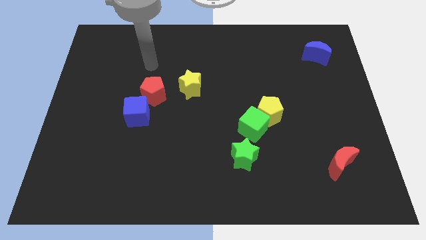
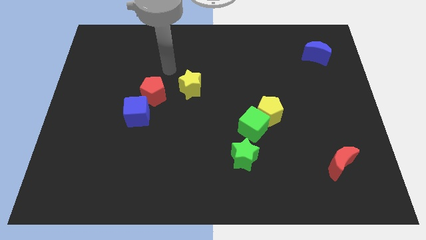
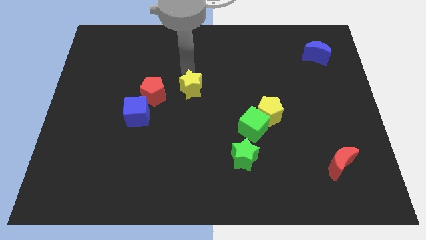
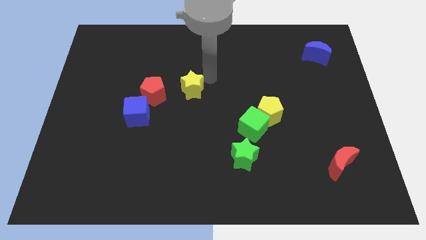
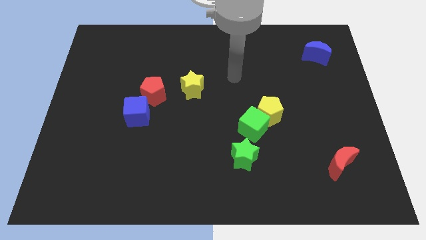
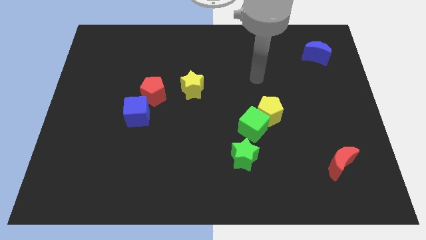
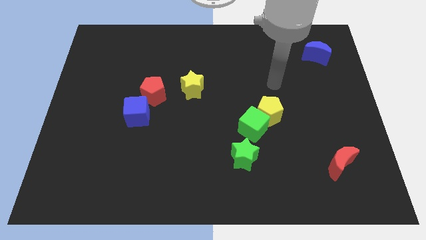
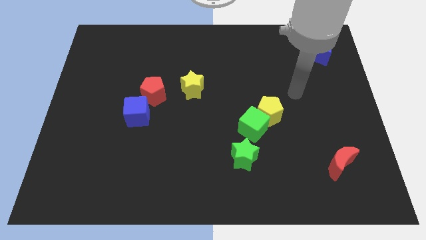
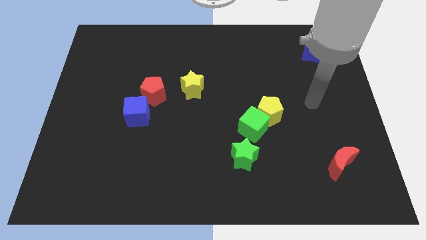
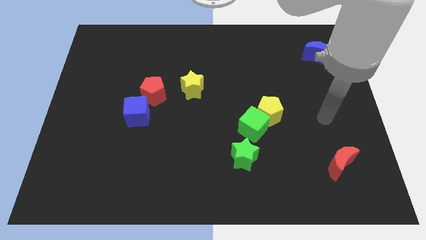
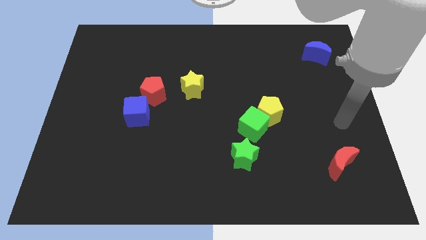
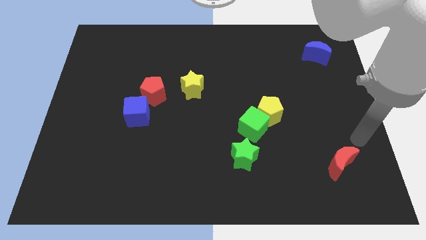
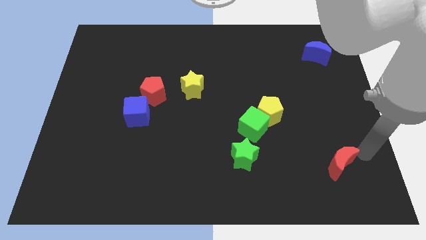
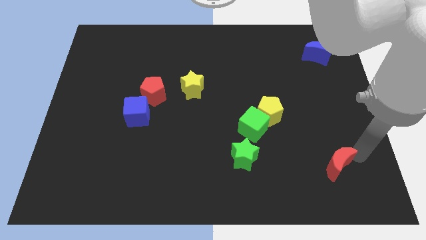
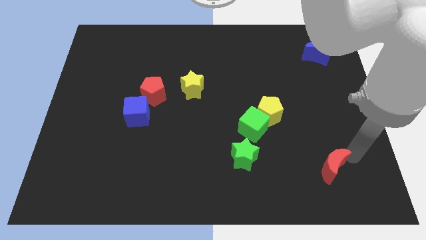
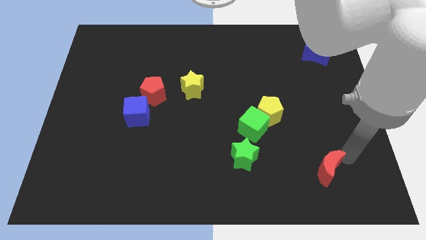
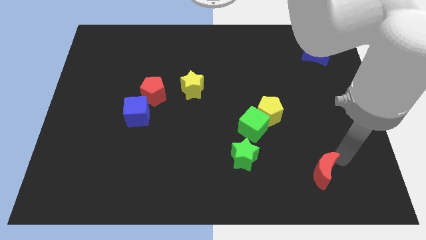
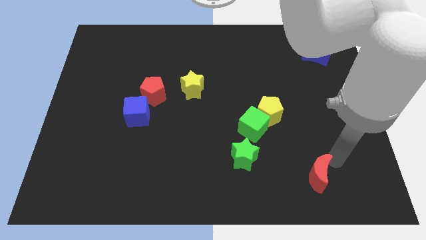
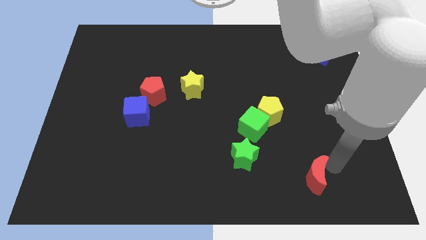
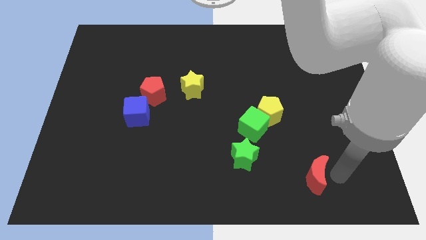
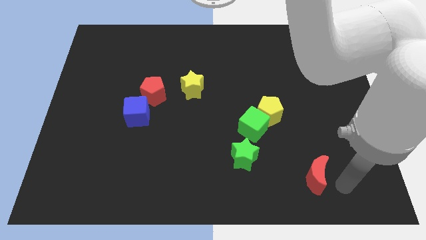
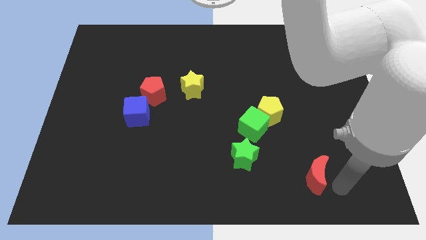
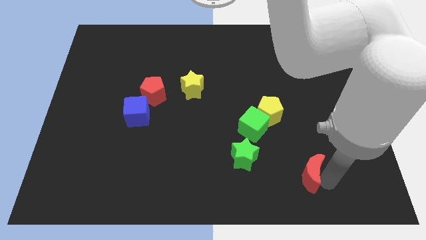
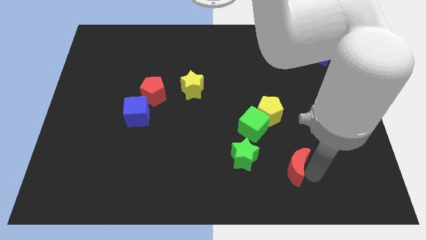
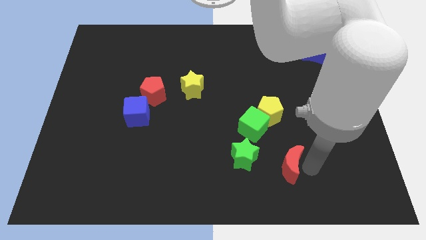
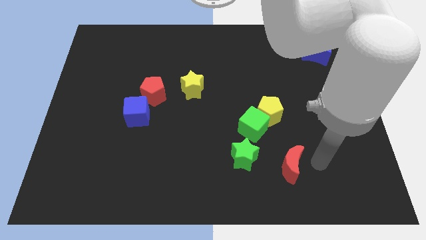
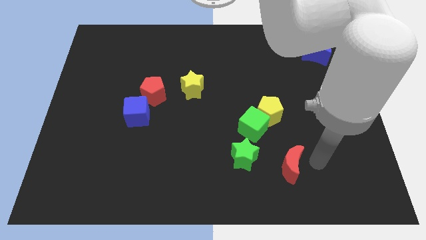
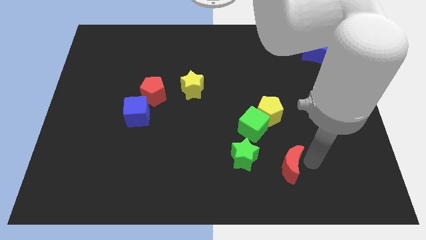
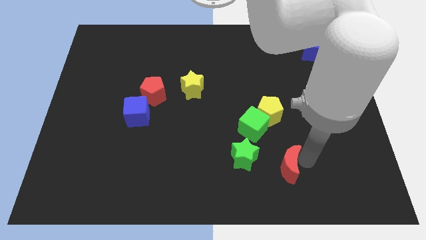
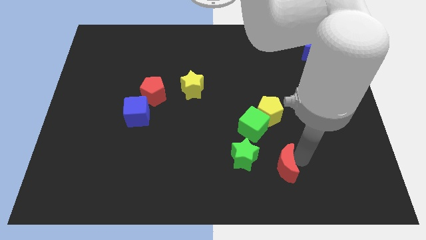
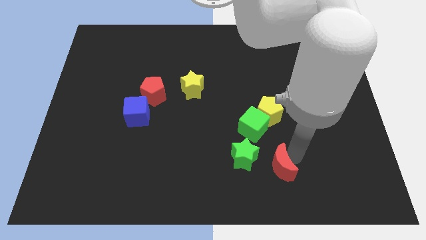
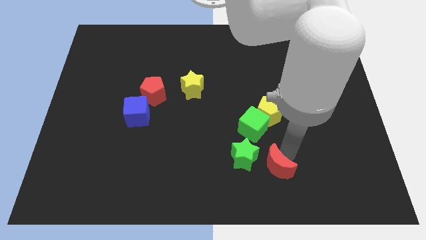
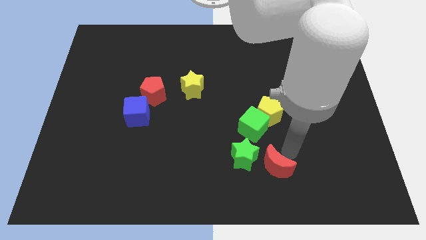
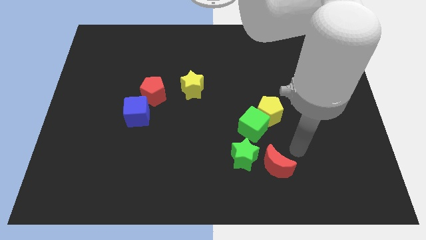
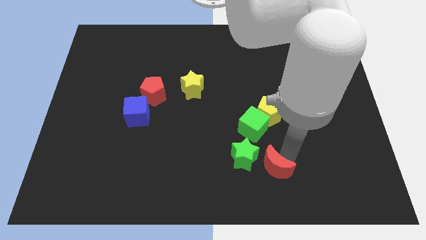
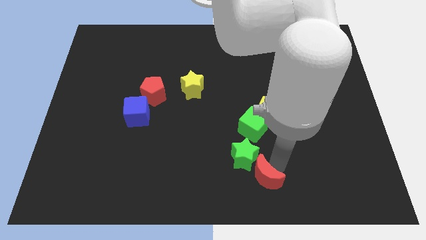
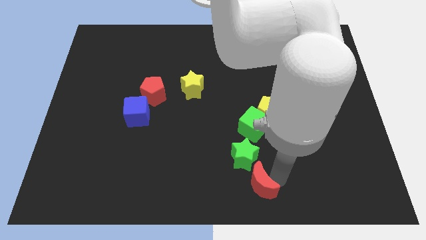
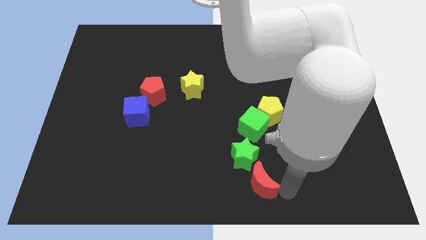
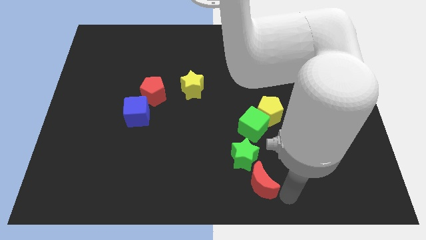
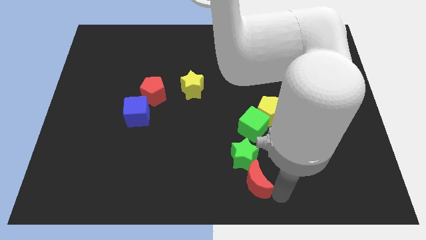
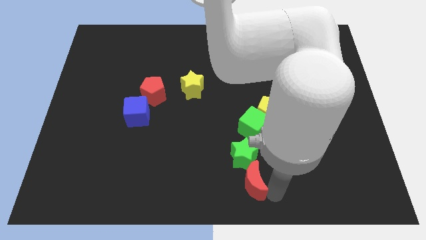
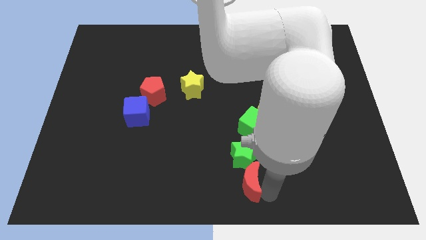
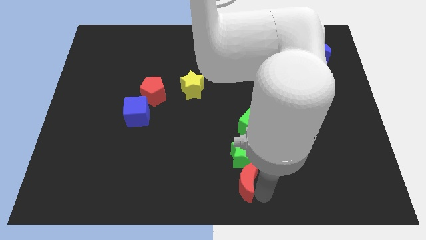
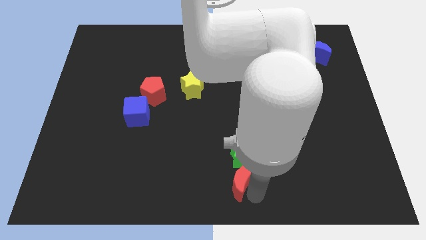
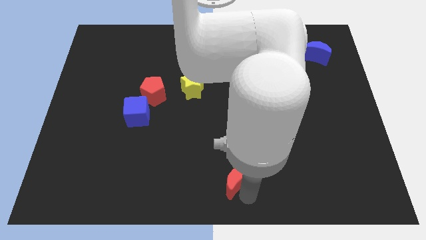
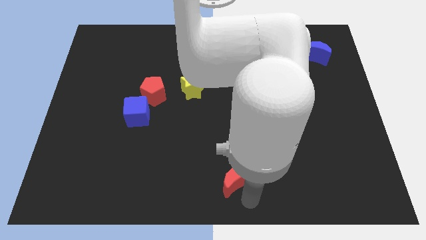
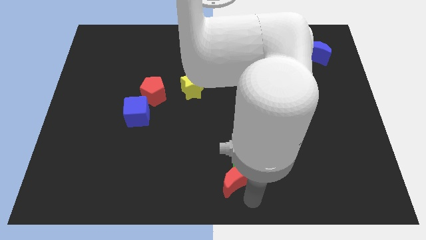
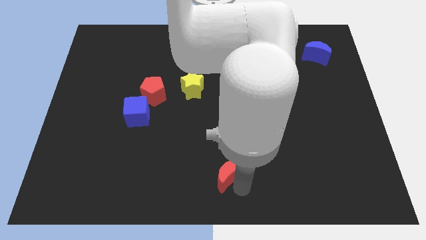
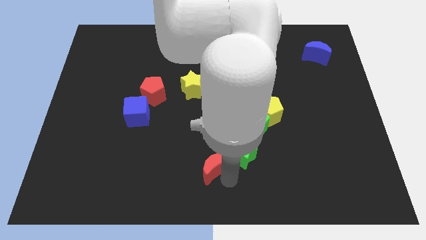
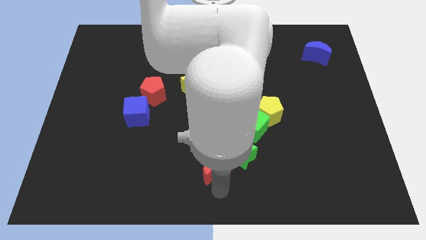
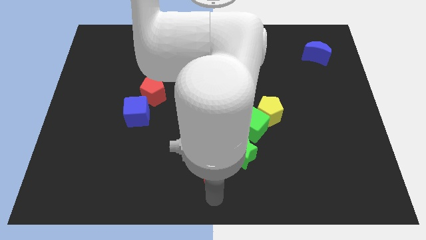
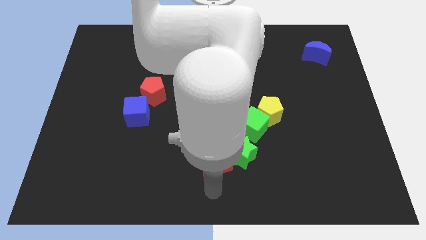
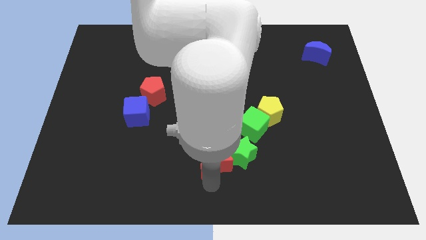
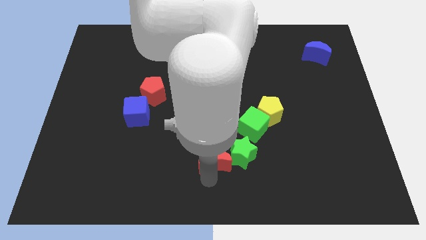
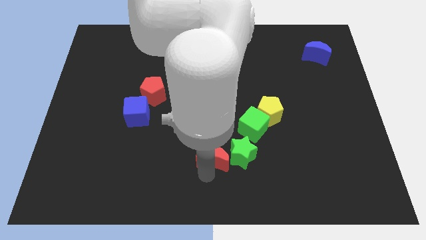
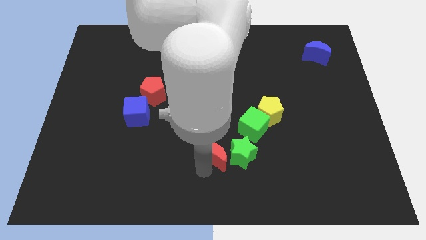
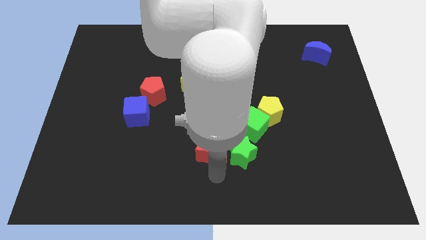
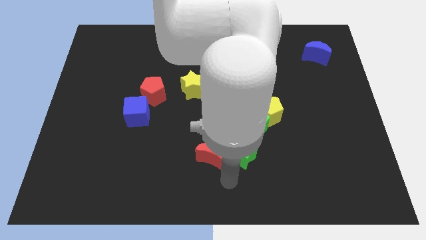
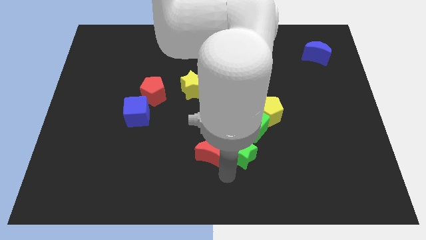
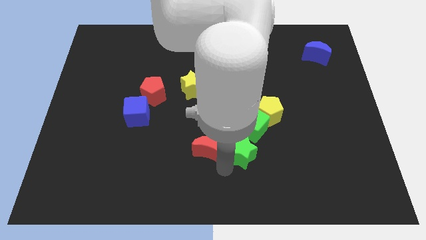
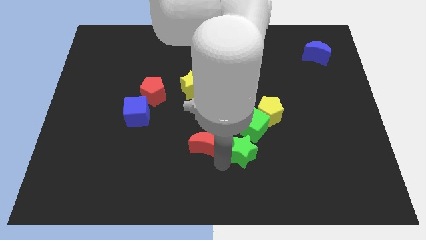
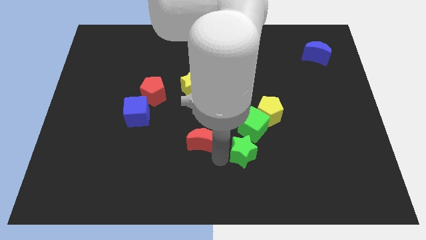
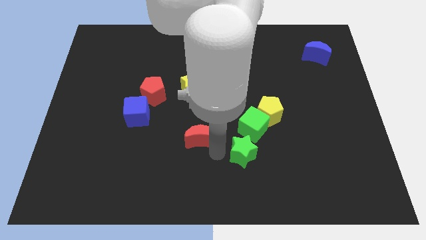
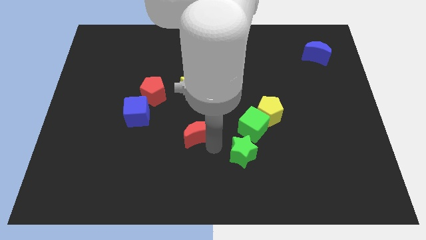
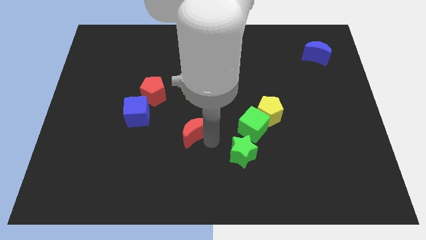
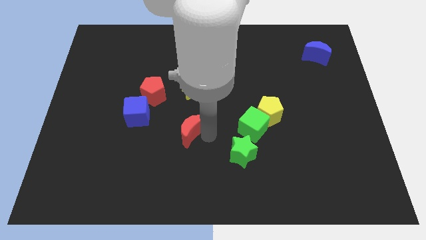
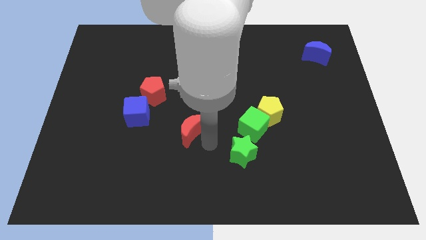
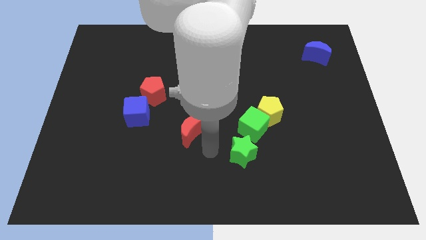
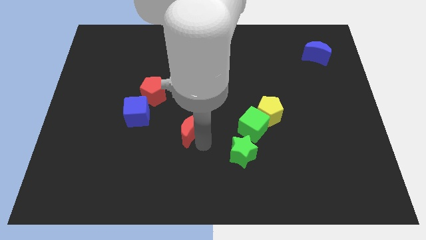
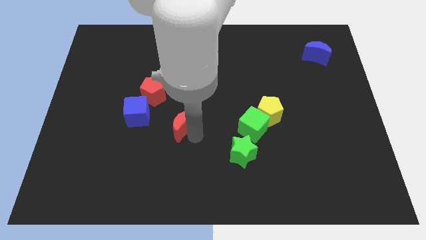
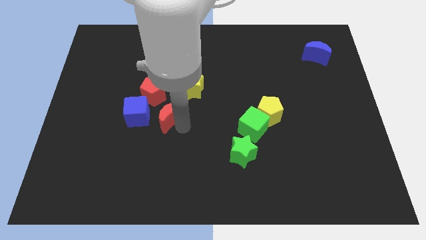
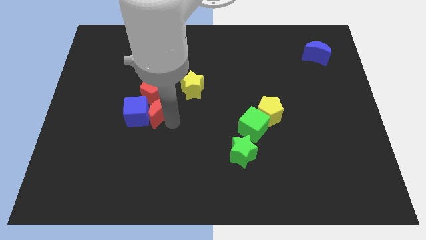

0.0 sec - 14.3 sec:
put the red moon to the red pentagon

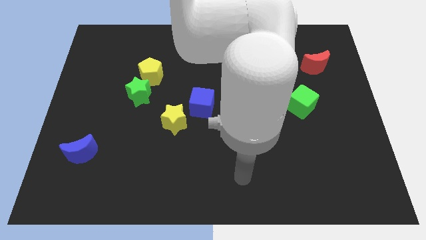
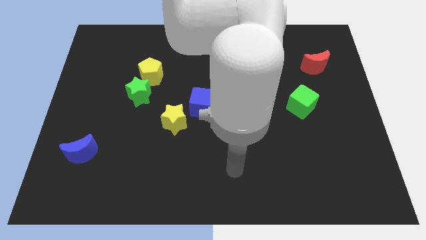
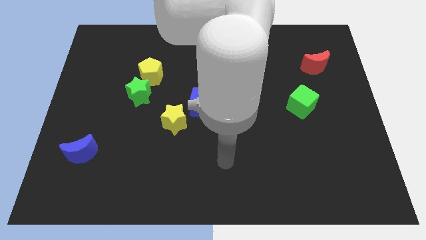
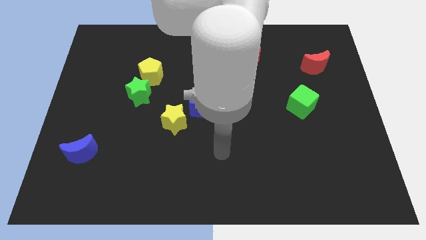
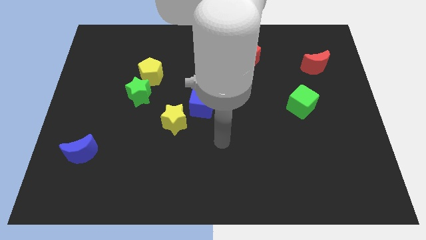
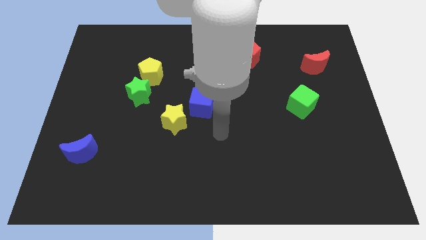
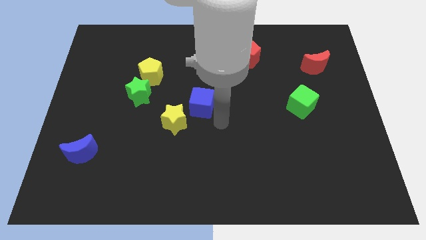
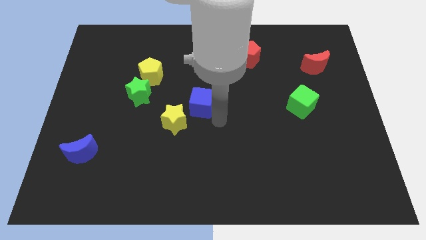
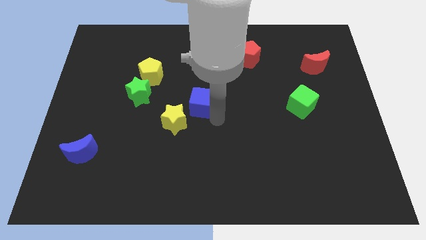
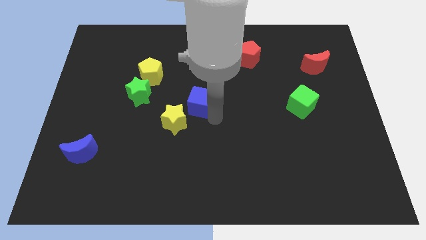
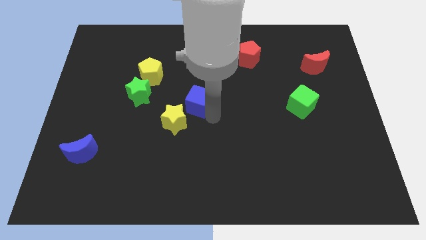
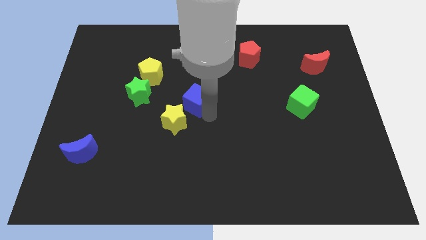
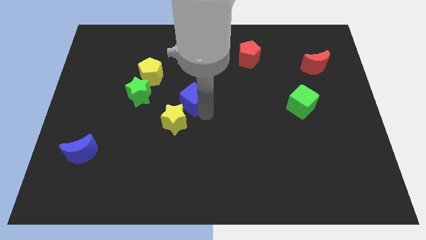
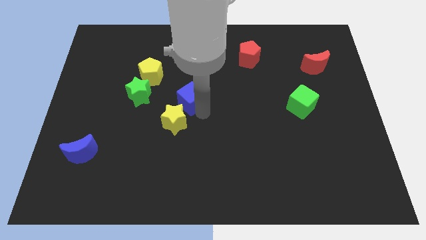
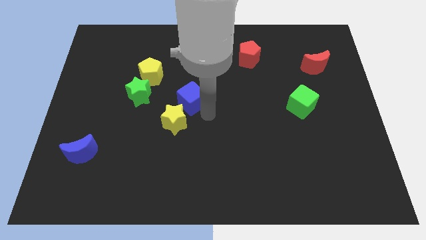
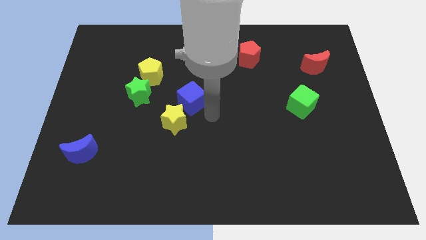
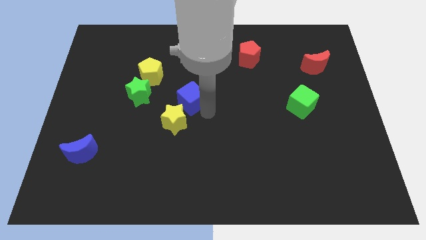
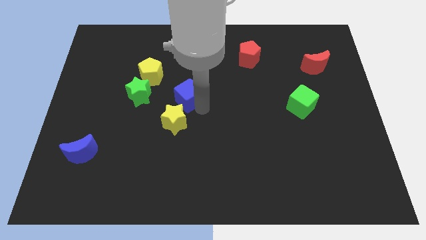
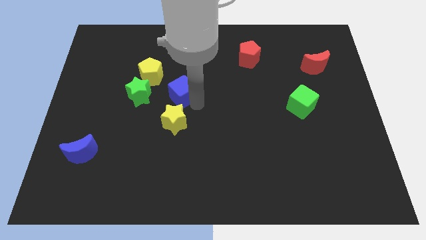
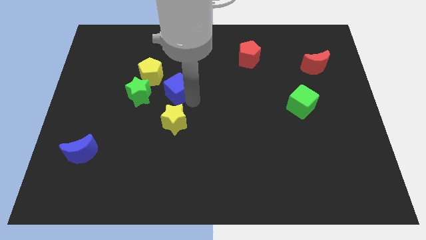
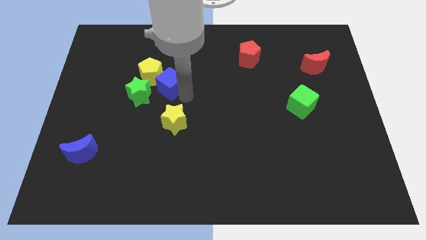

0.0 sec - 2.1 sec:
slide the blue cube close to the yellow pentagon
